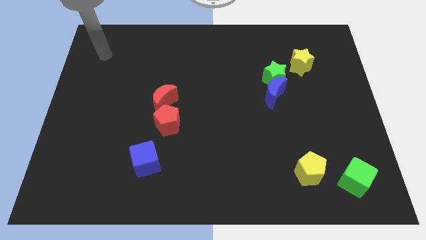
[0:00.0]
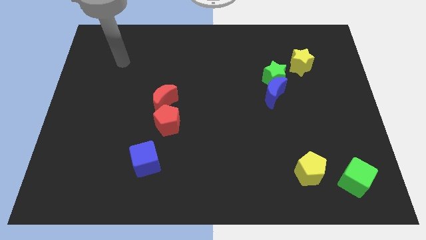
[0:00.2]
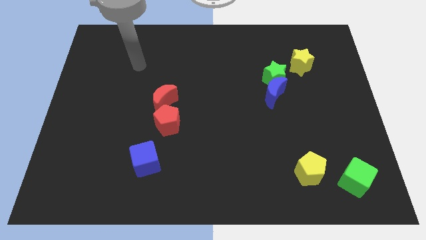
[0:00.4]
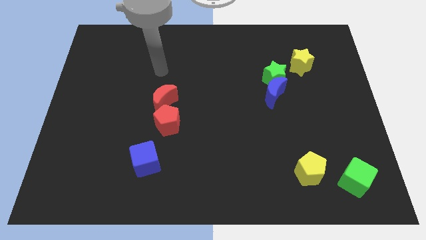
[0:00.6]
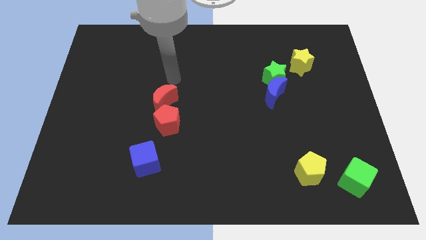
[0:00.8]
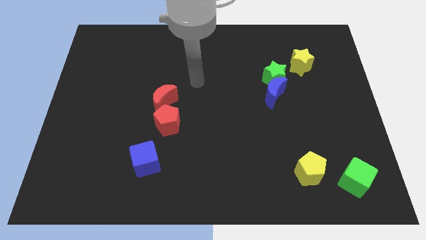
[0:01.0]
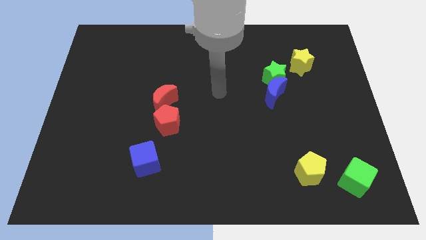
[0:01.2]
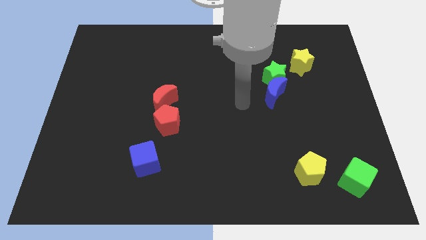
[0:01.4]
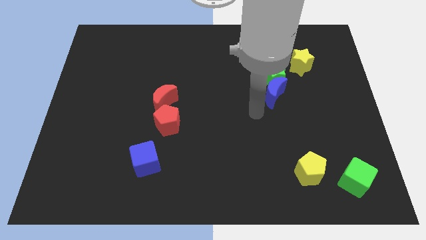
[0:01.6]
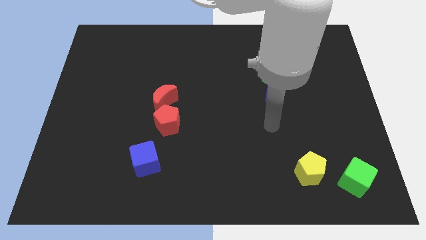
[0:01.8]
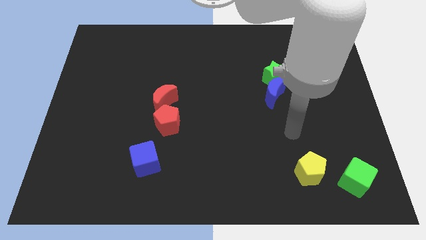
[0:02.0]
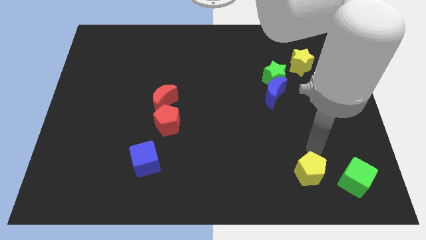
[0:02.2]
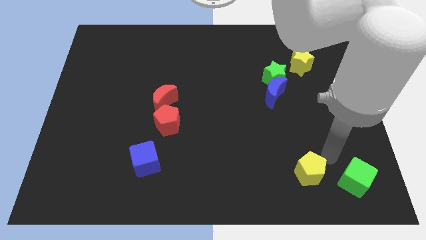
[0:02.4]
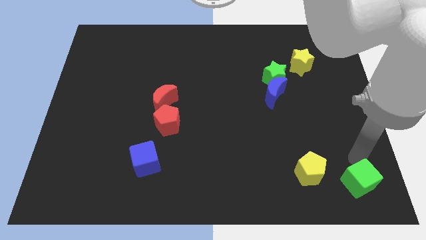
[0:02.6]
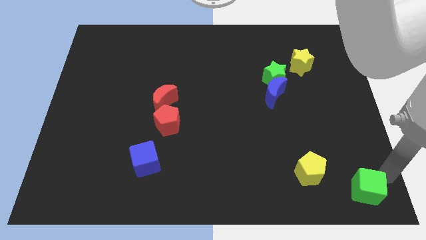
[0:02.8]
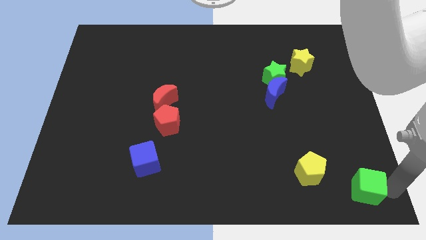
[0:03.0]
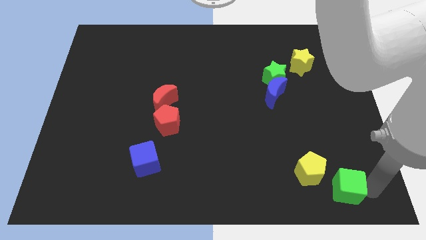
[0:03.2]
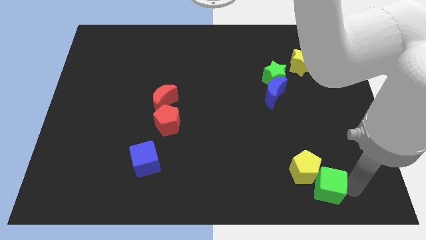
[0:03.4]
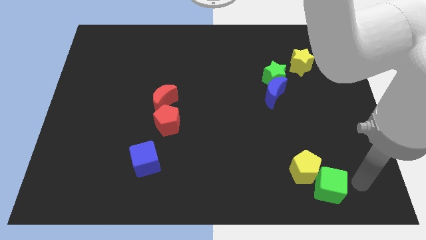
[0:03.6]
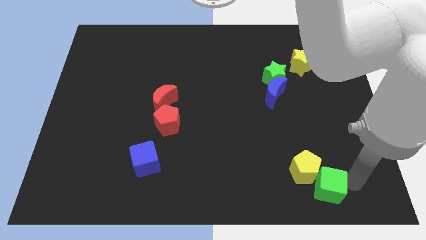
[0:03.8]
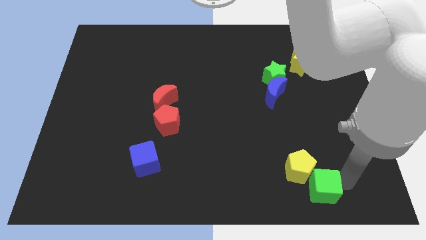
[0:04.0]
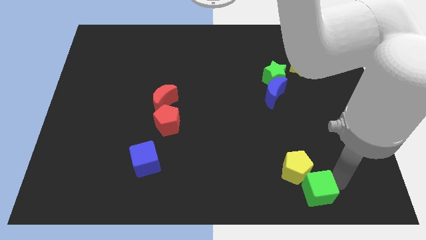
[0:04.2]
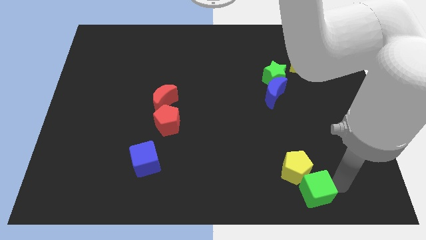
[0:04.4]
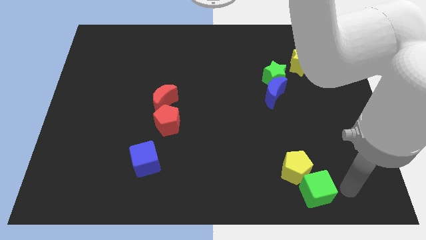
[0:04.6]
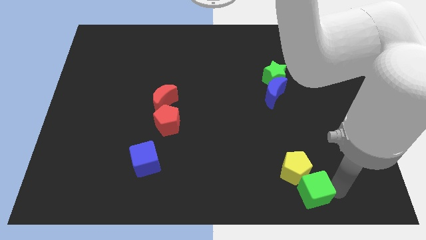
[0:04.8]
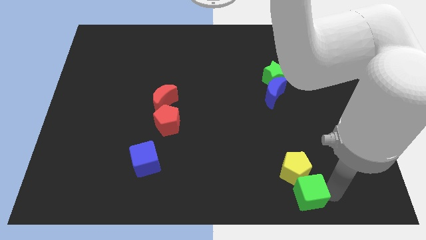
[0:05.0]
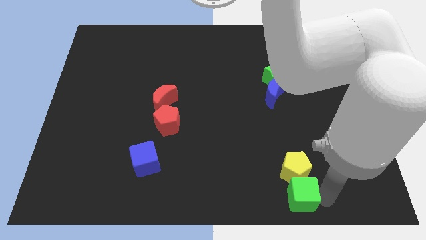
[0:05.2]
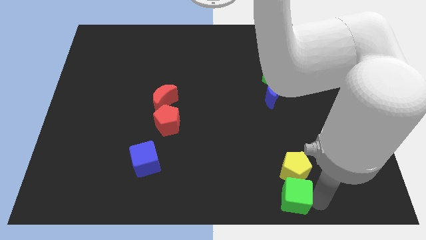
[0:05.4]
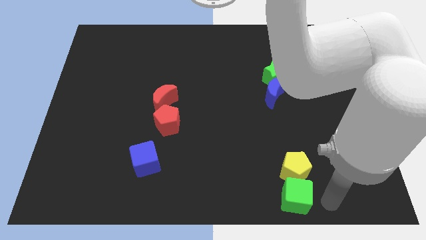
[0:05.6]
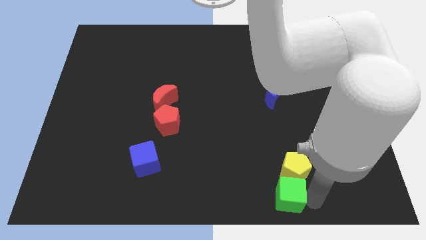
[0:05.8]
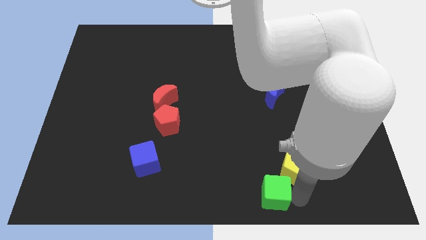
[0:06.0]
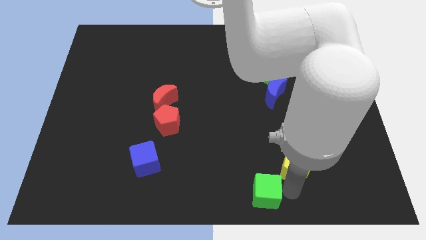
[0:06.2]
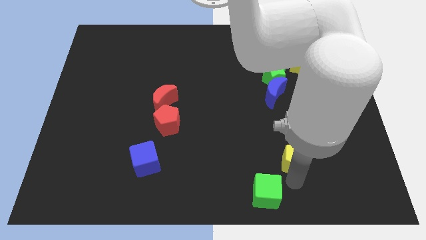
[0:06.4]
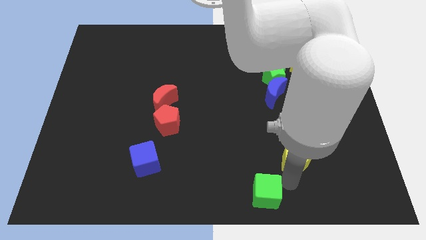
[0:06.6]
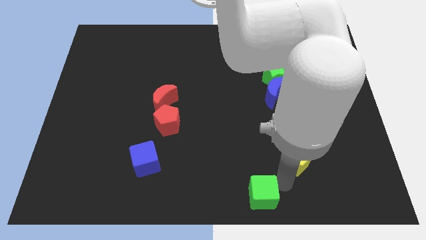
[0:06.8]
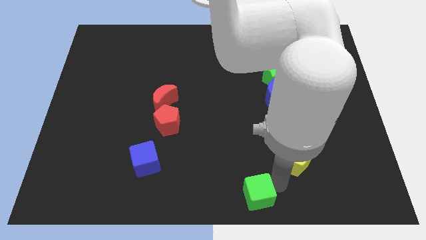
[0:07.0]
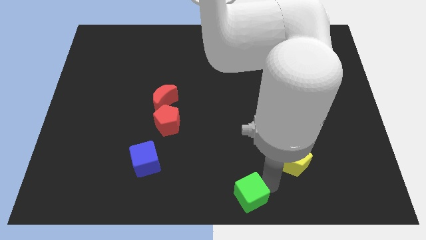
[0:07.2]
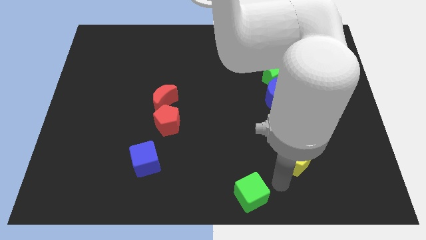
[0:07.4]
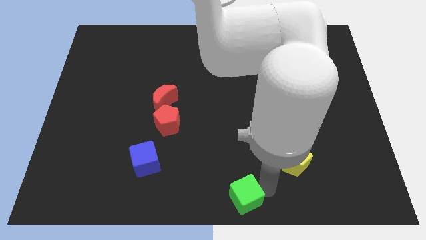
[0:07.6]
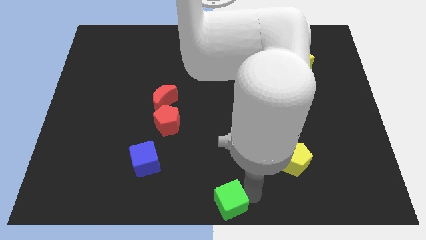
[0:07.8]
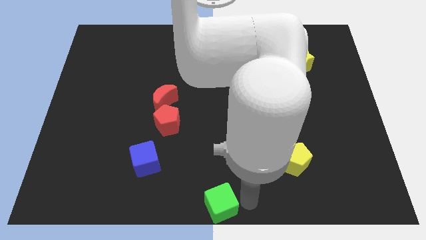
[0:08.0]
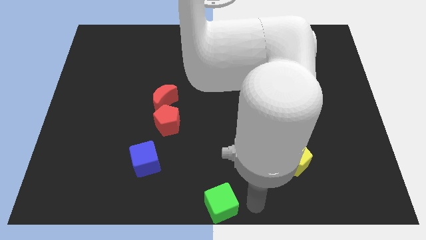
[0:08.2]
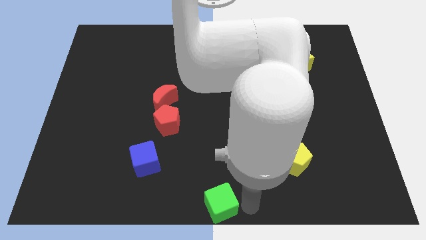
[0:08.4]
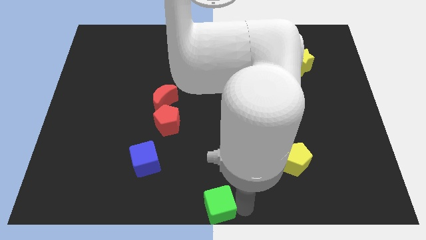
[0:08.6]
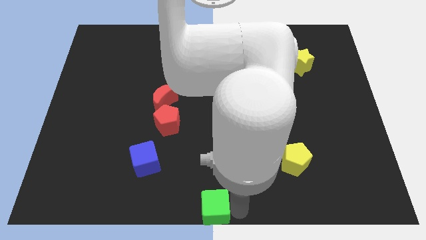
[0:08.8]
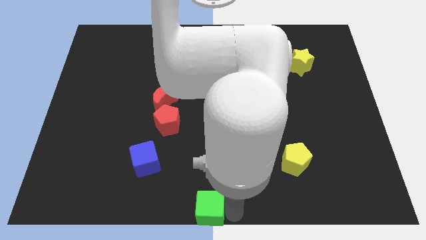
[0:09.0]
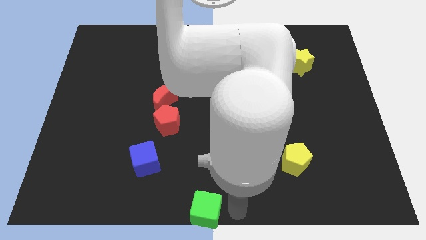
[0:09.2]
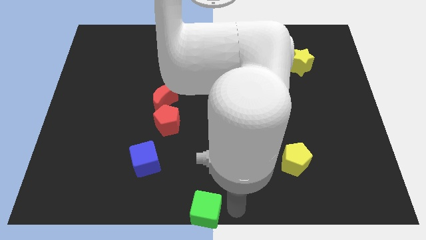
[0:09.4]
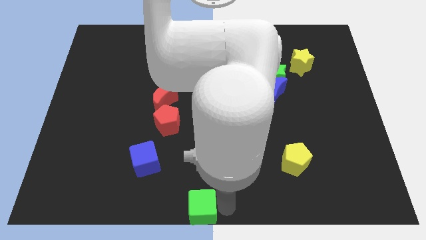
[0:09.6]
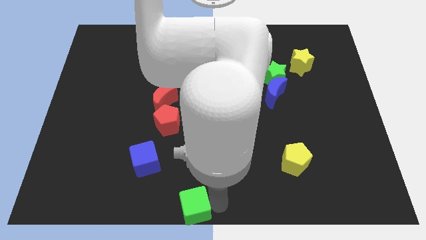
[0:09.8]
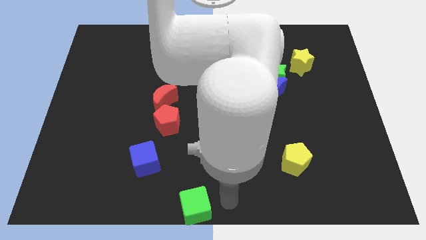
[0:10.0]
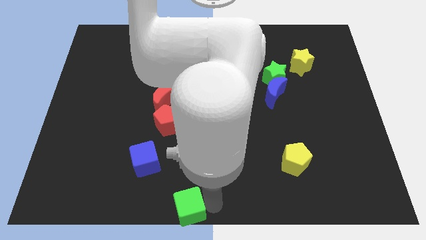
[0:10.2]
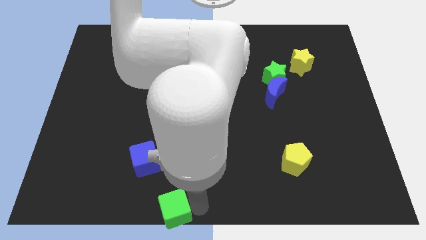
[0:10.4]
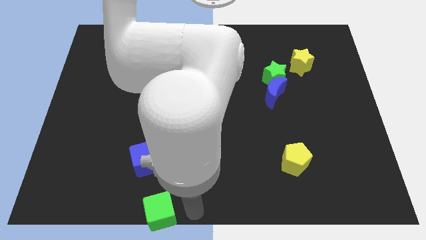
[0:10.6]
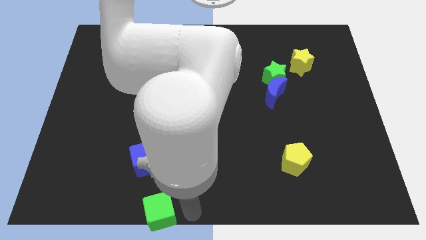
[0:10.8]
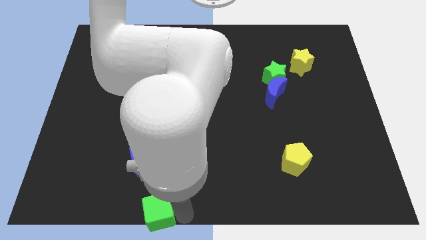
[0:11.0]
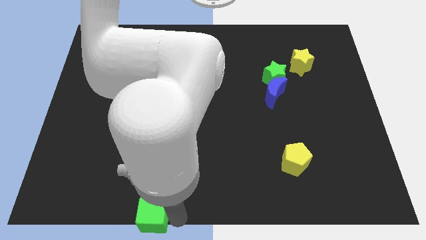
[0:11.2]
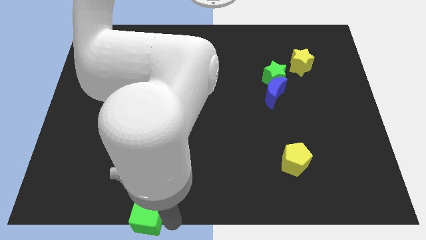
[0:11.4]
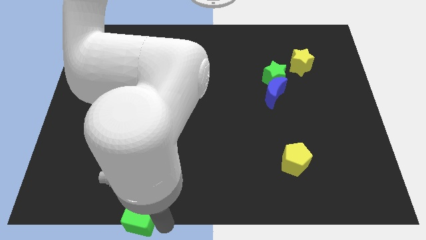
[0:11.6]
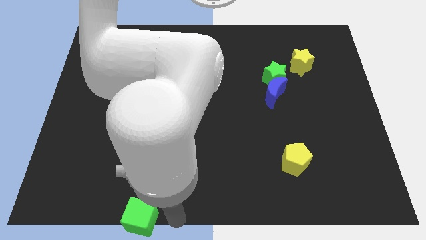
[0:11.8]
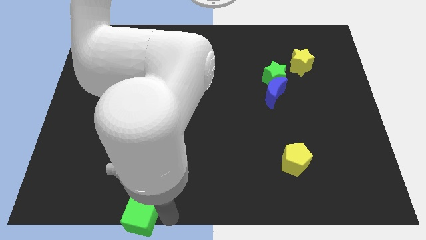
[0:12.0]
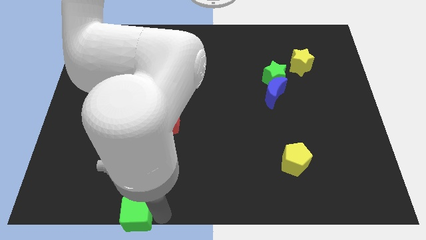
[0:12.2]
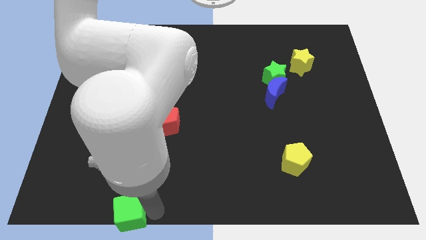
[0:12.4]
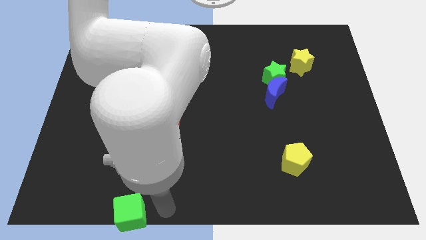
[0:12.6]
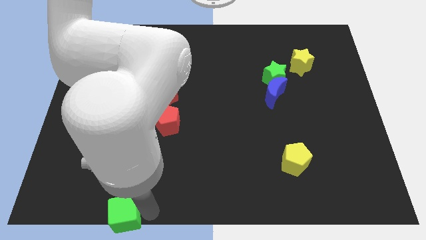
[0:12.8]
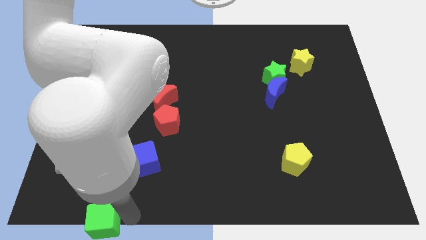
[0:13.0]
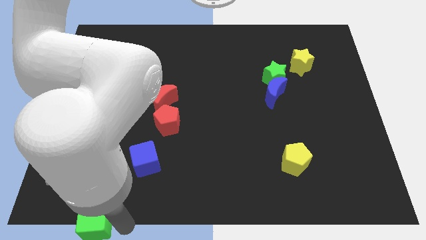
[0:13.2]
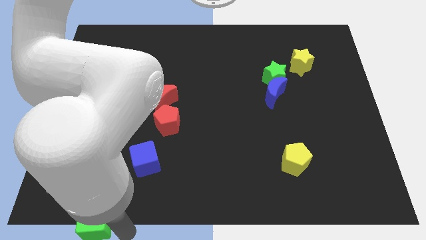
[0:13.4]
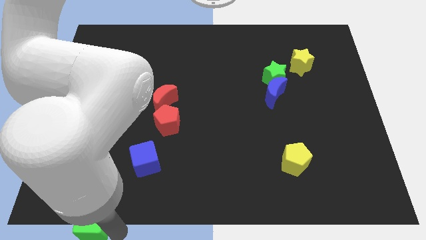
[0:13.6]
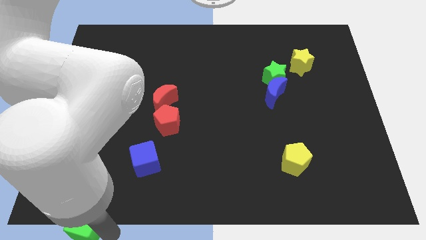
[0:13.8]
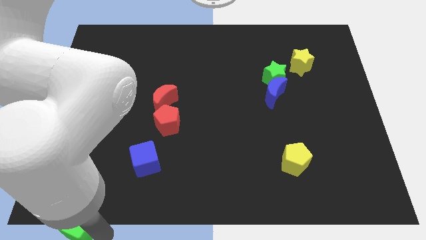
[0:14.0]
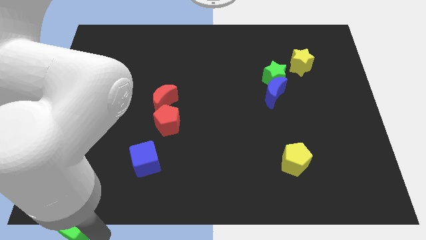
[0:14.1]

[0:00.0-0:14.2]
push the green cube to the bottom left
